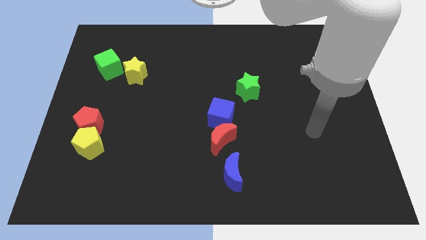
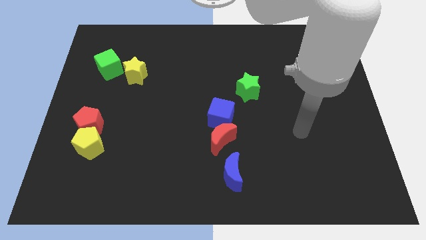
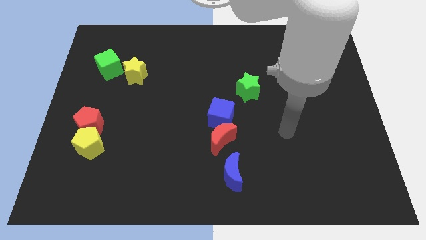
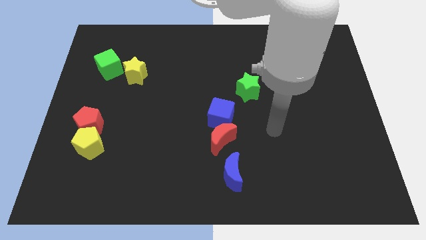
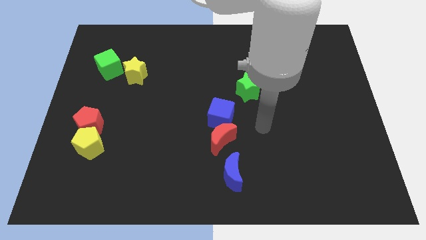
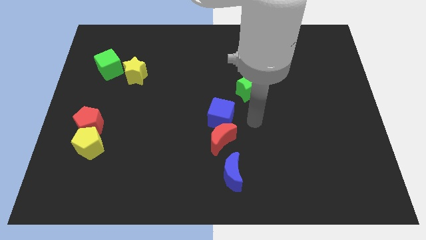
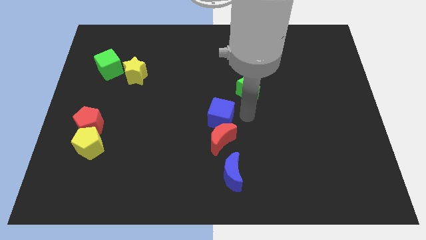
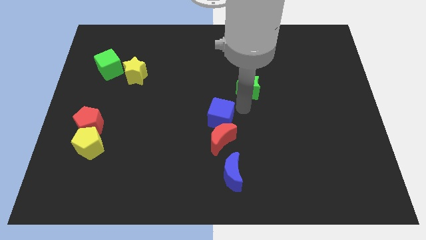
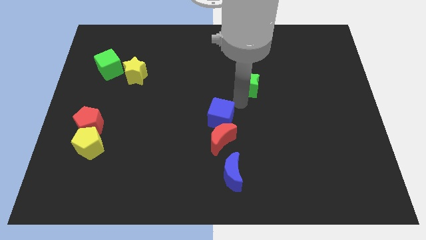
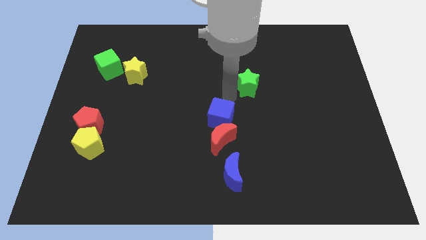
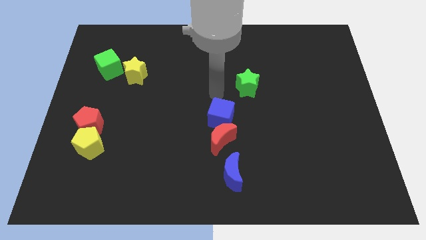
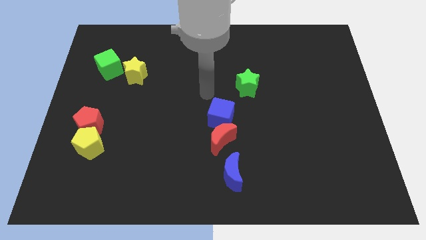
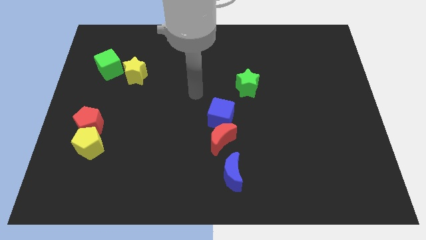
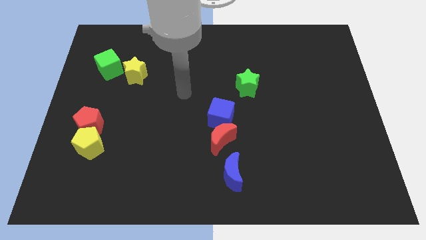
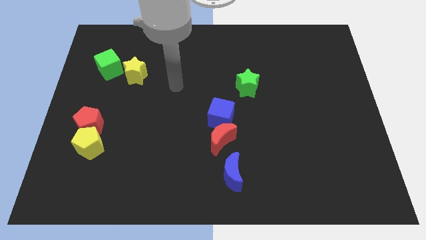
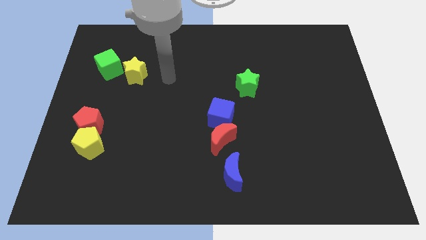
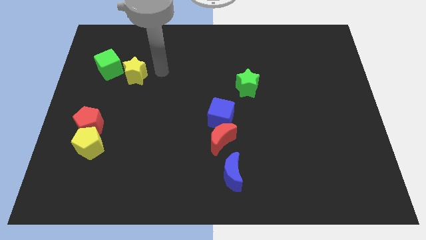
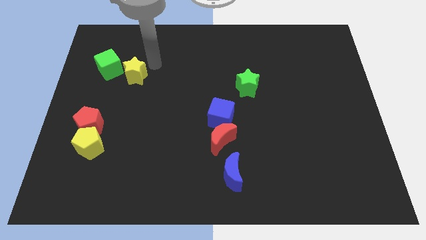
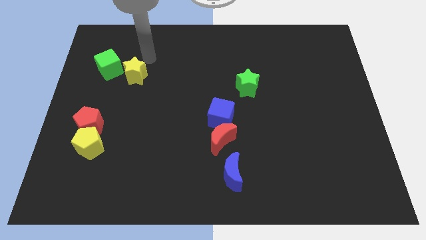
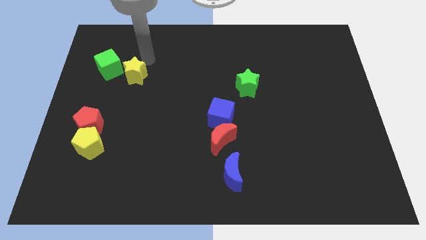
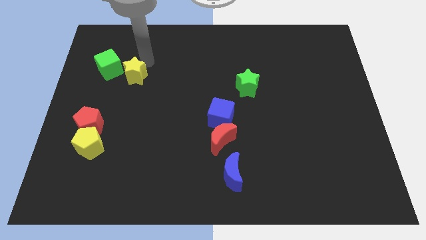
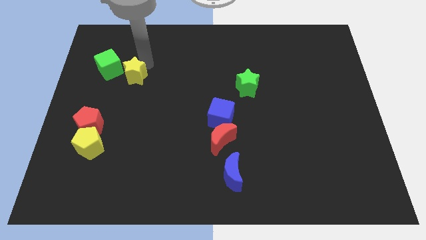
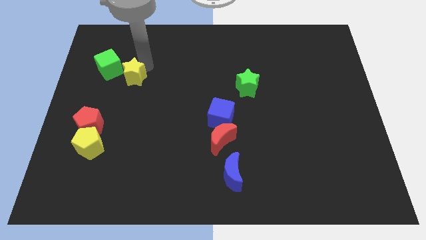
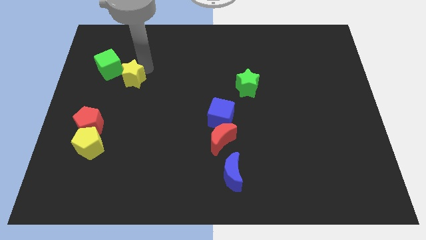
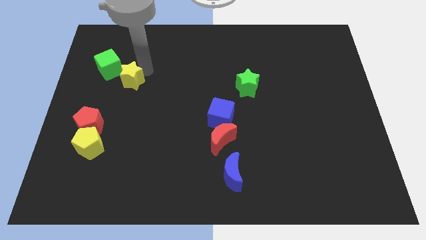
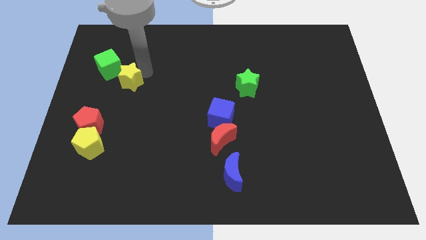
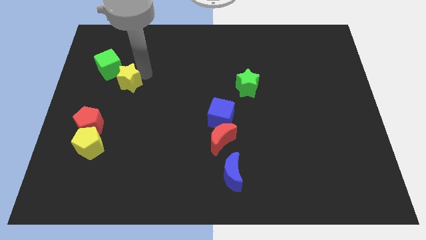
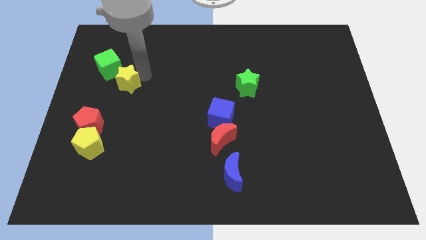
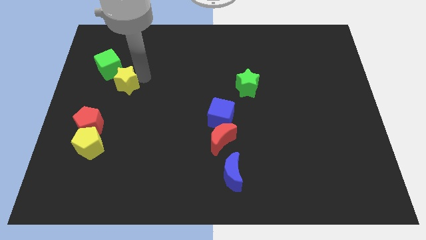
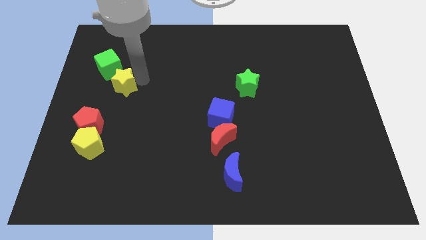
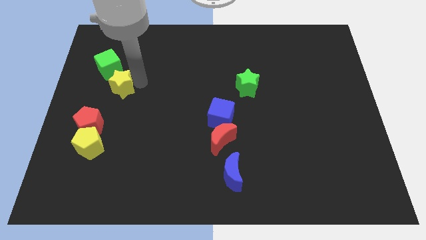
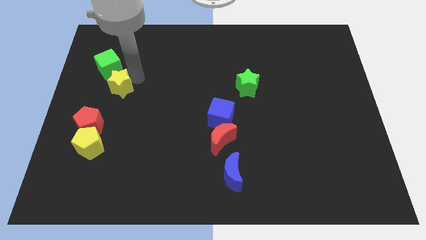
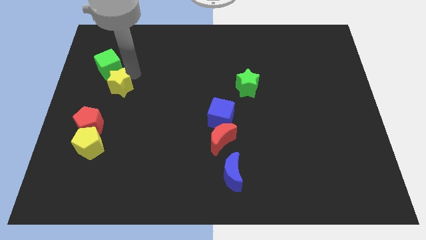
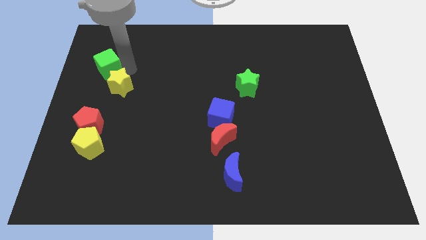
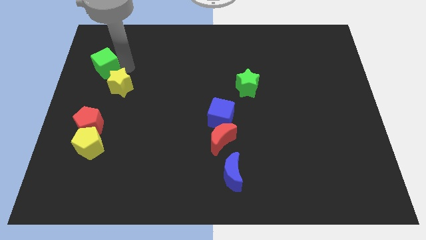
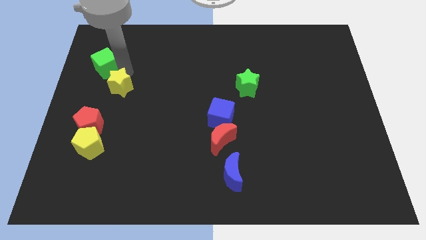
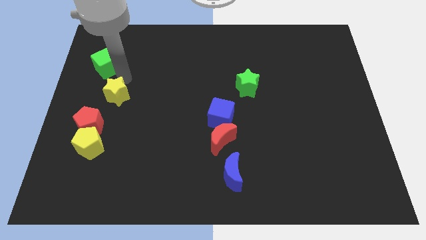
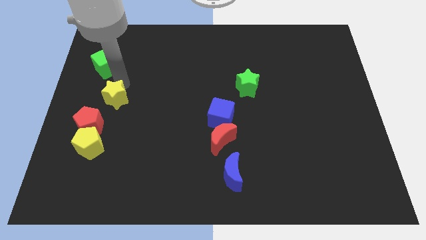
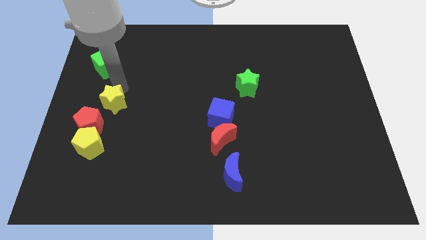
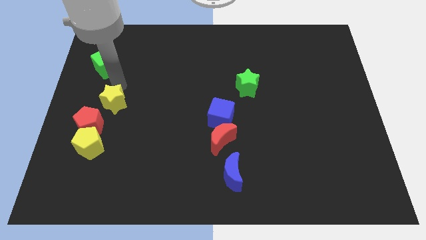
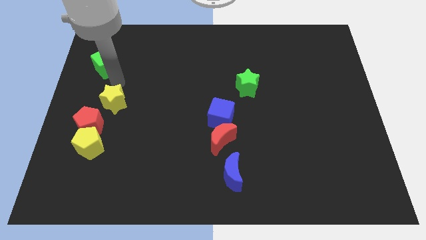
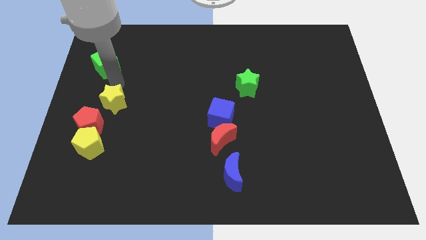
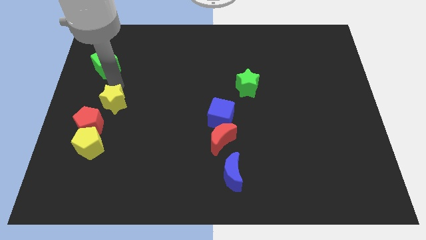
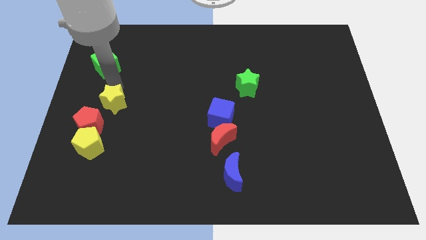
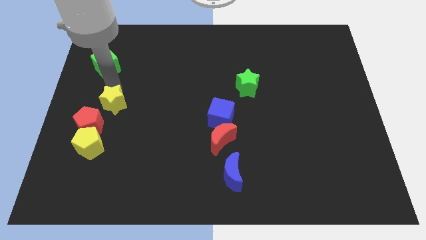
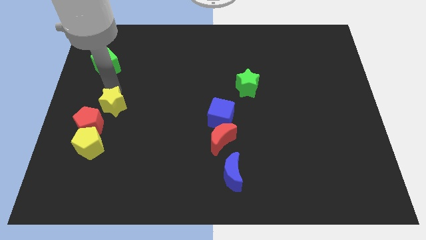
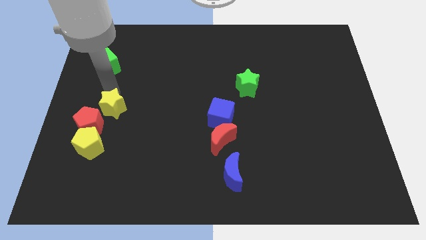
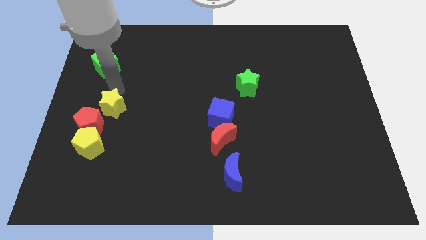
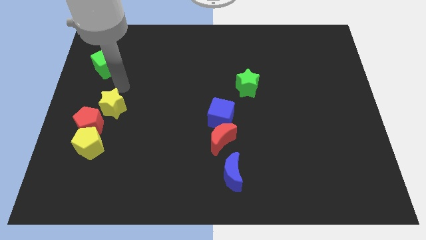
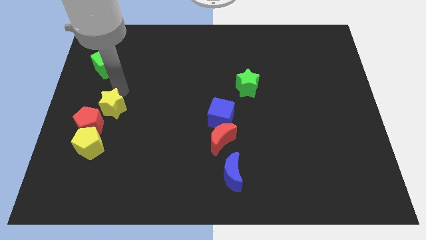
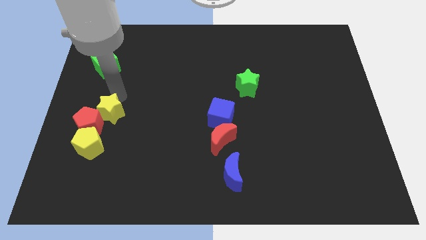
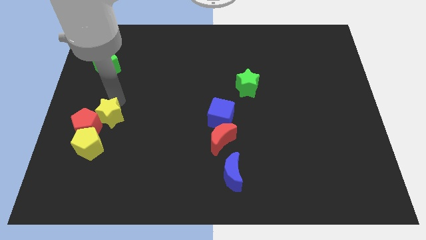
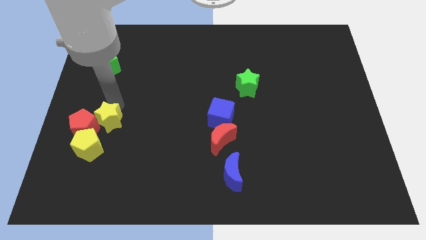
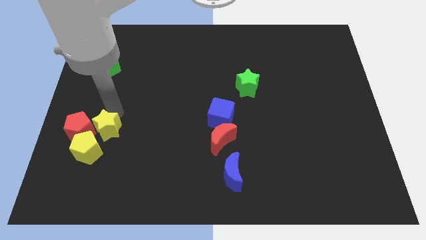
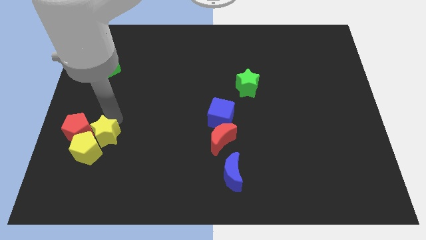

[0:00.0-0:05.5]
push the yellow star close to the yellow pentagon

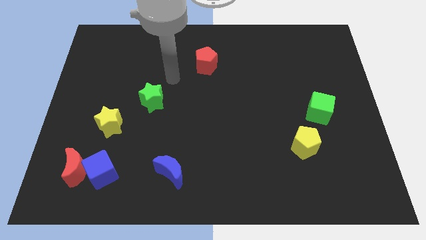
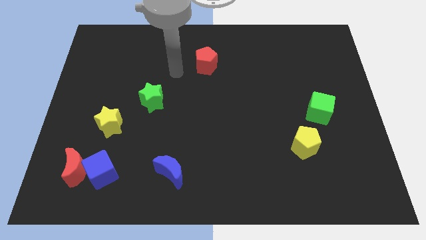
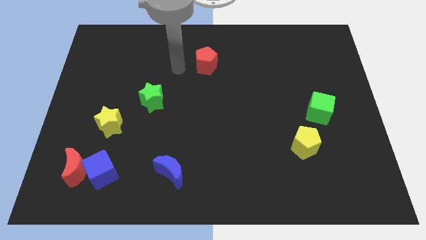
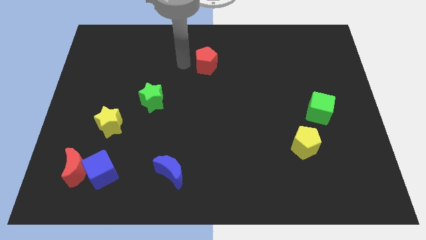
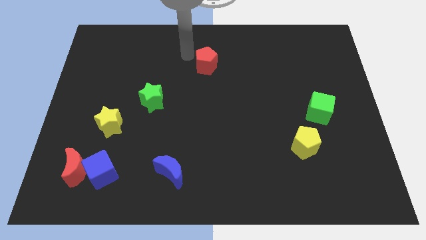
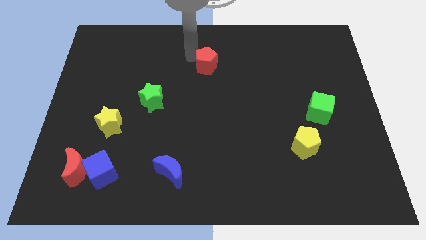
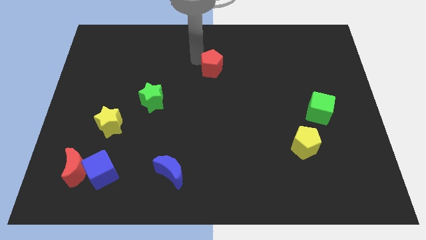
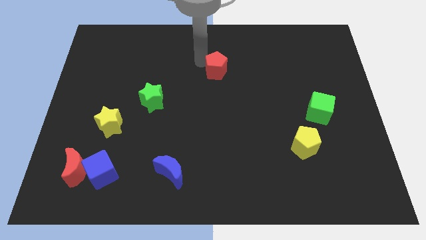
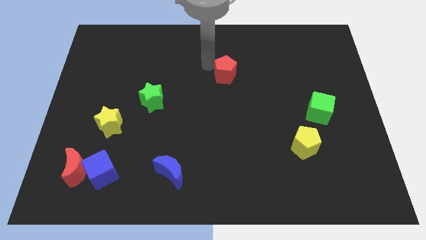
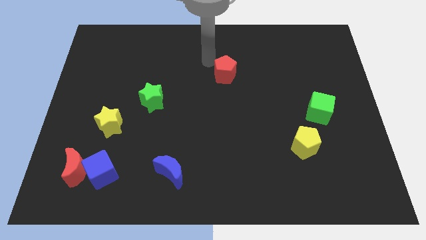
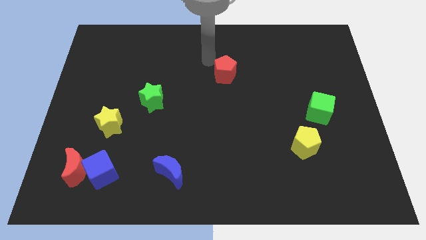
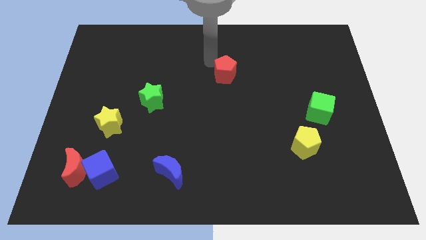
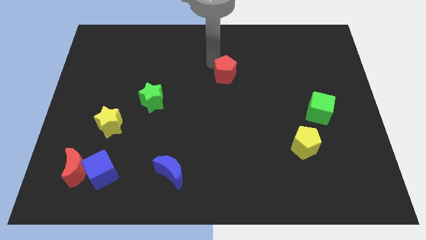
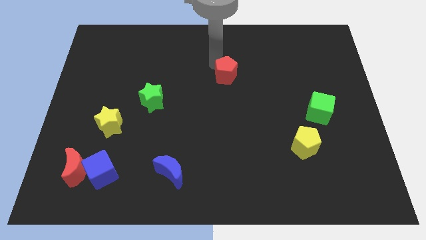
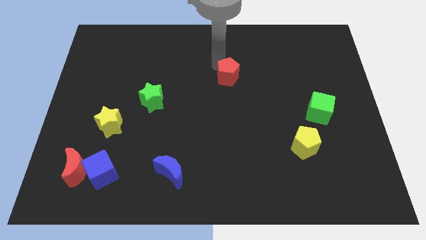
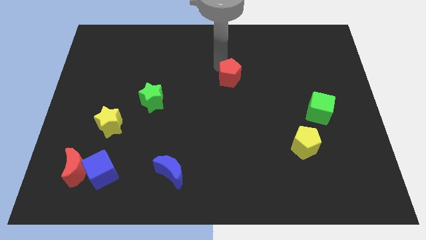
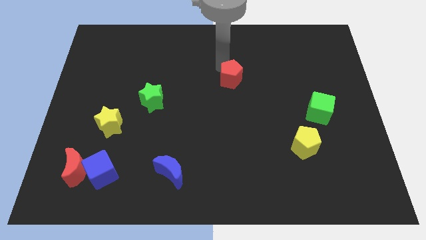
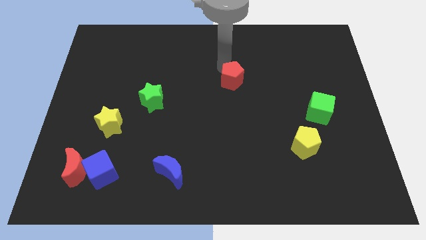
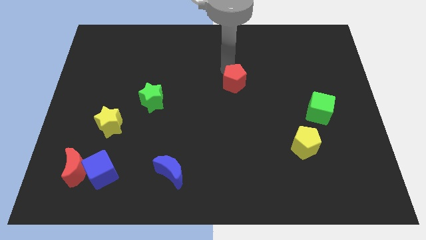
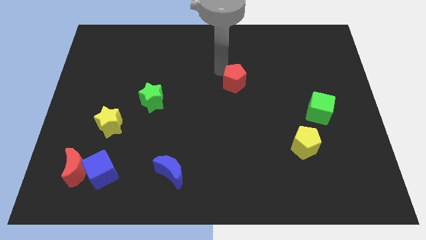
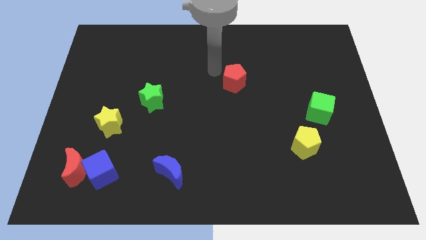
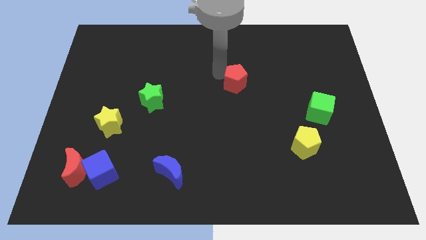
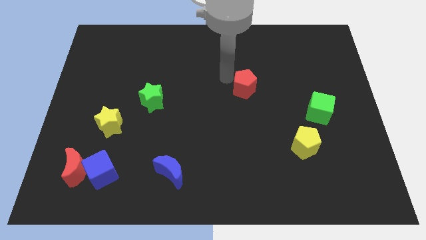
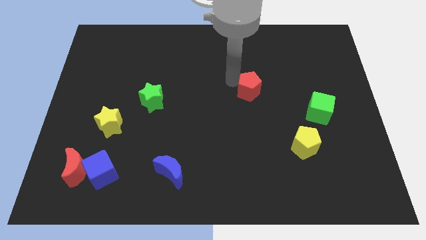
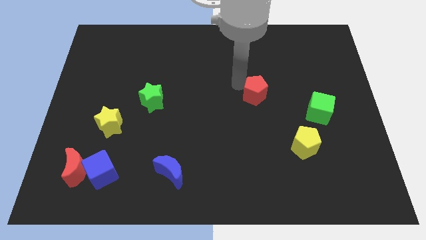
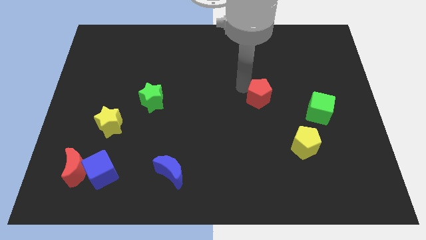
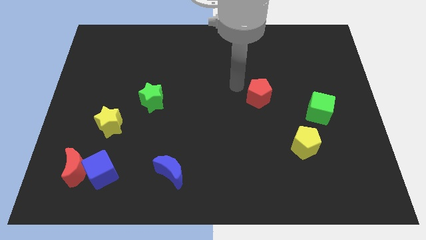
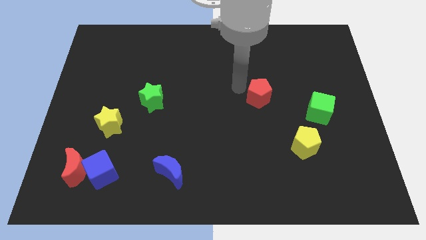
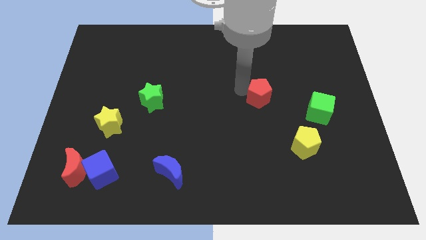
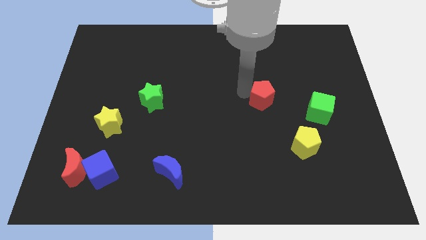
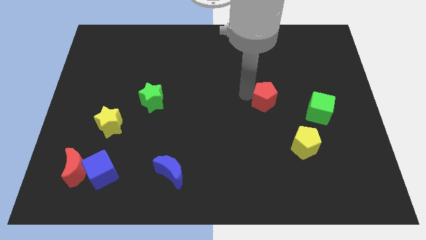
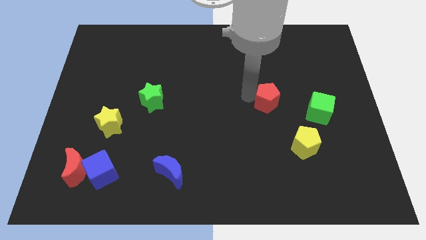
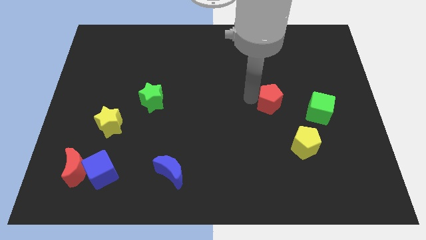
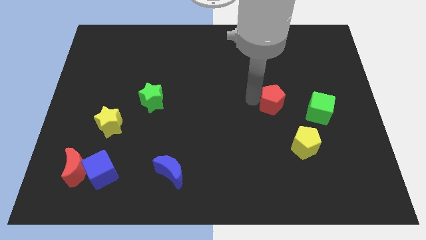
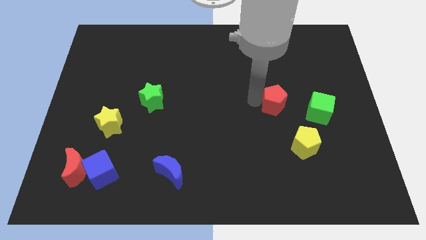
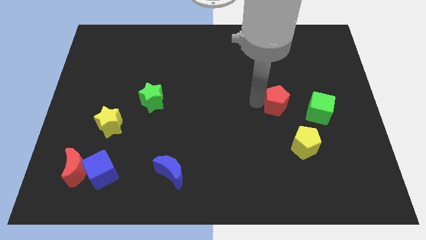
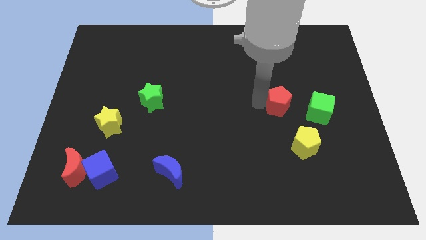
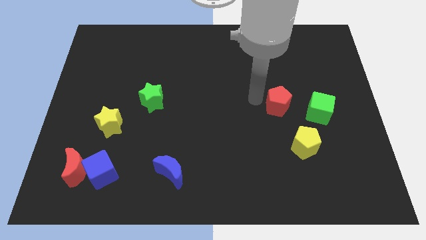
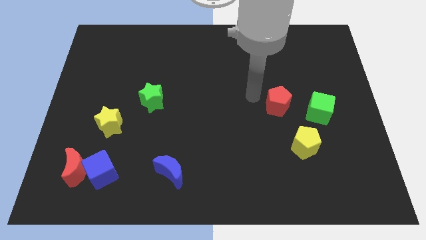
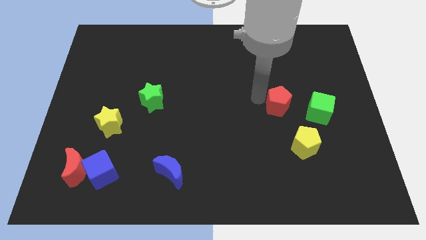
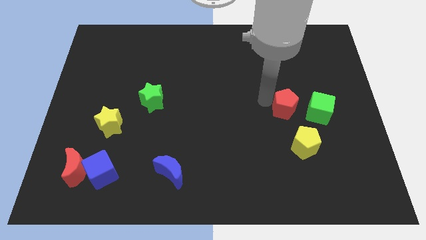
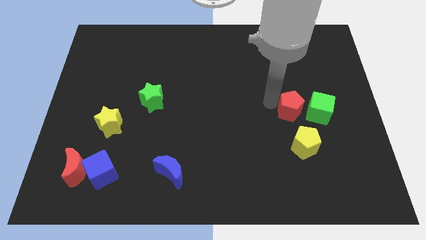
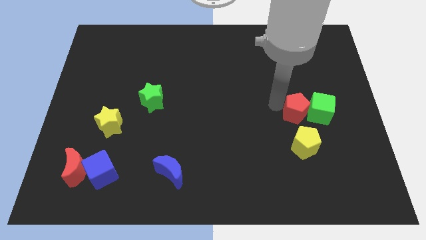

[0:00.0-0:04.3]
slide the red pentagon close to the green cube
